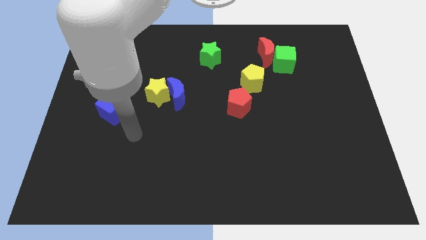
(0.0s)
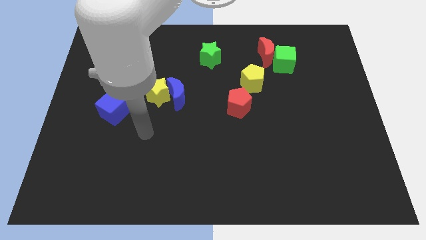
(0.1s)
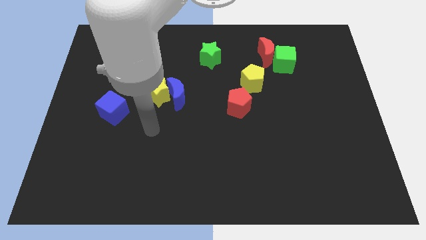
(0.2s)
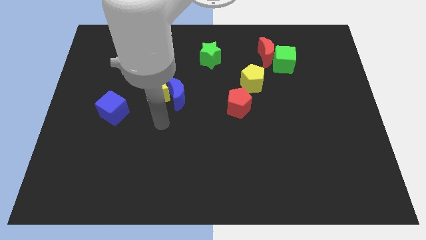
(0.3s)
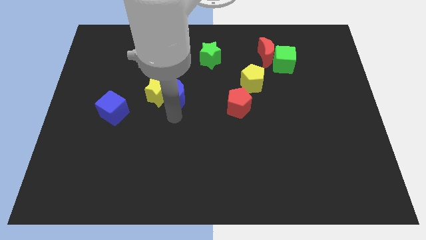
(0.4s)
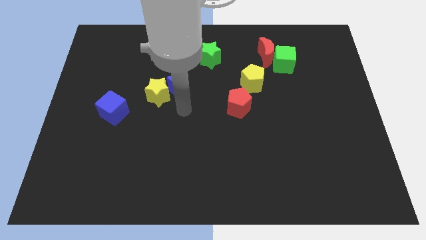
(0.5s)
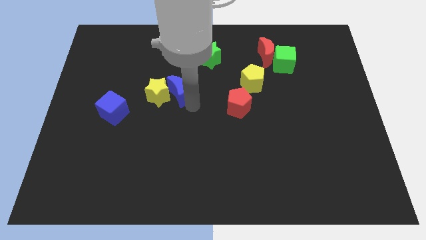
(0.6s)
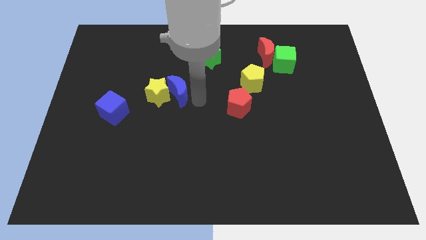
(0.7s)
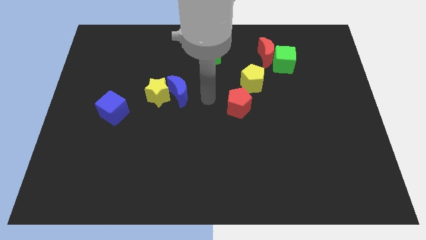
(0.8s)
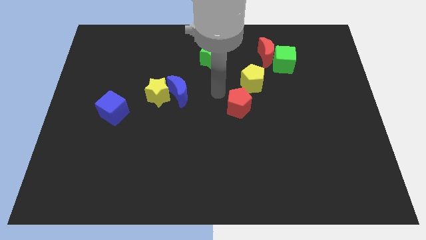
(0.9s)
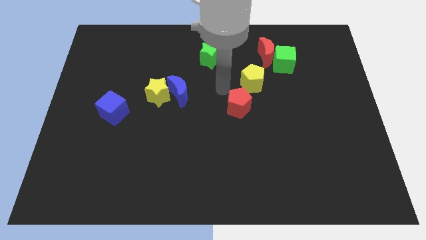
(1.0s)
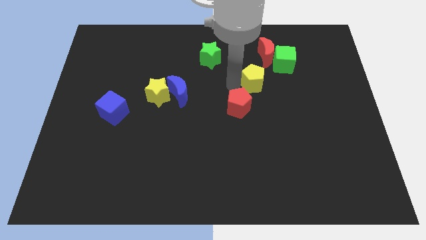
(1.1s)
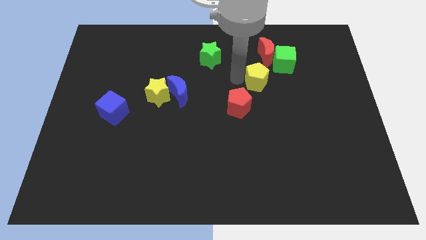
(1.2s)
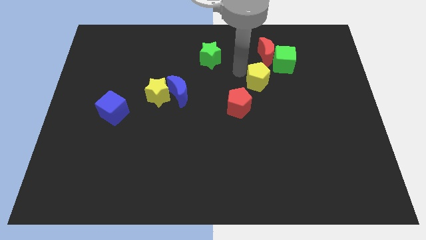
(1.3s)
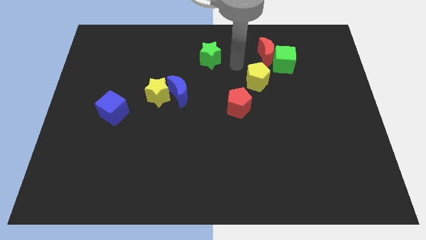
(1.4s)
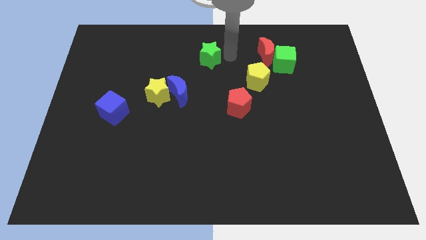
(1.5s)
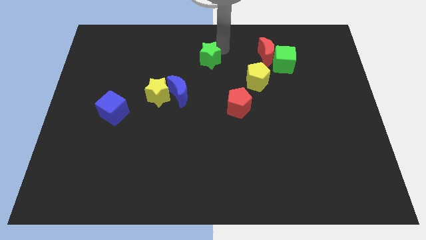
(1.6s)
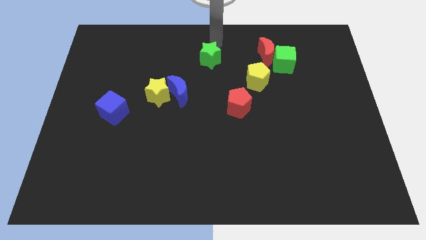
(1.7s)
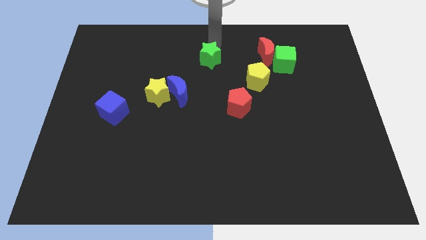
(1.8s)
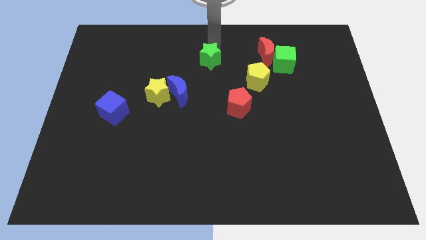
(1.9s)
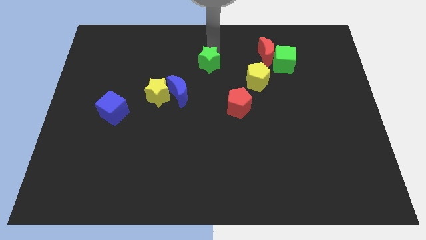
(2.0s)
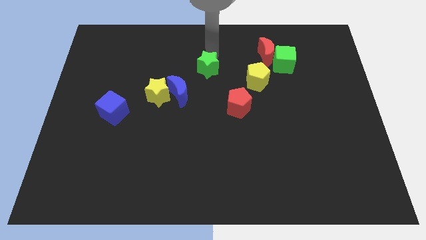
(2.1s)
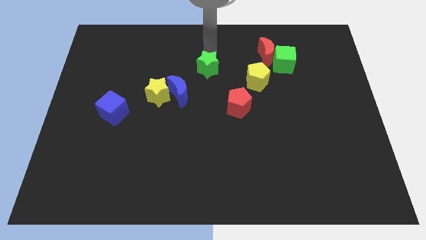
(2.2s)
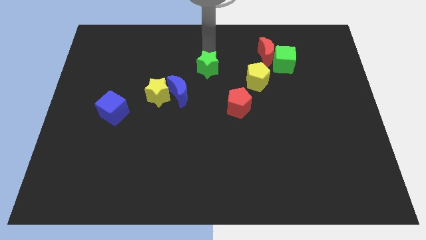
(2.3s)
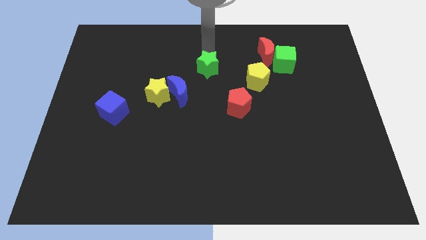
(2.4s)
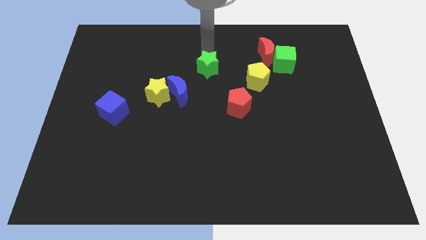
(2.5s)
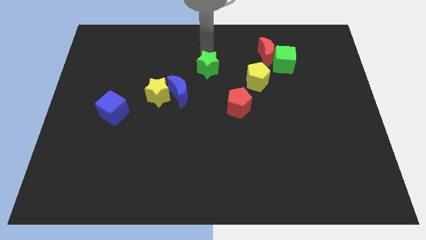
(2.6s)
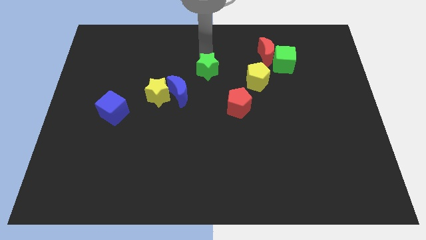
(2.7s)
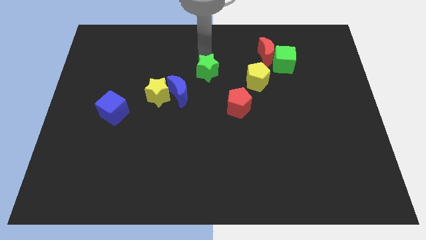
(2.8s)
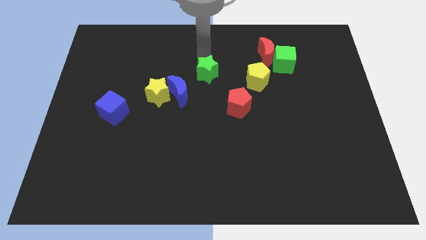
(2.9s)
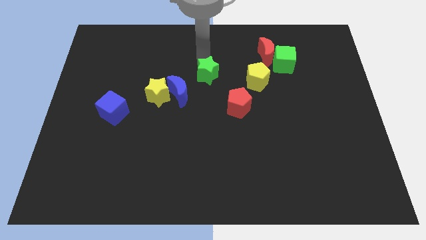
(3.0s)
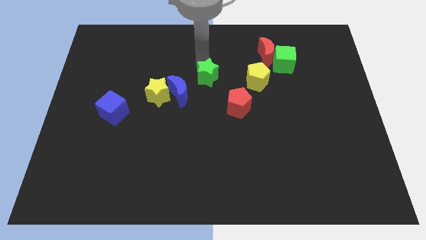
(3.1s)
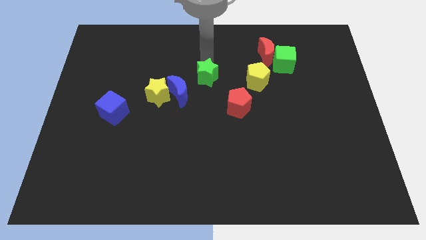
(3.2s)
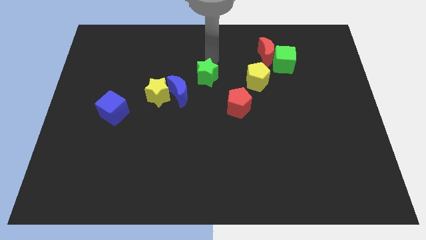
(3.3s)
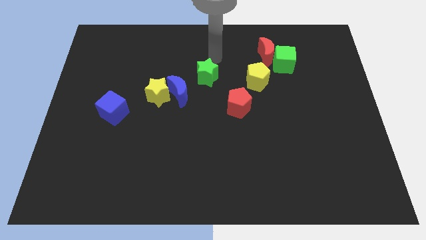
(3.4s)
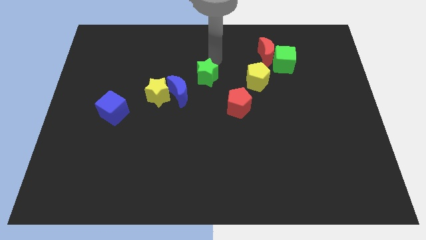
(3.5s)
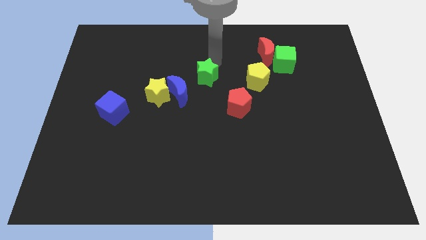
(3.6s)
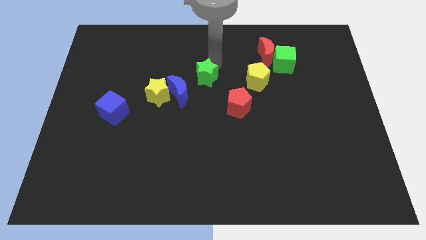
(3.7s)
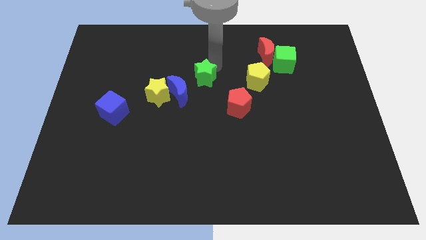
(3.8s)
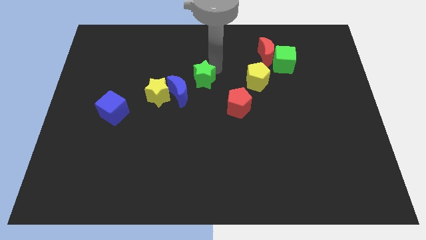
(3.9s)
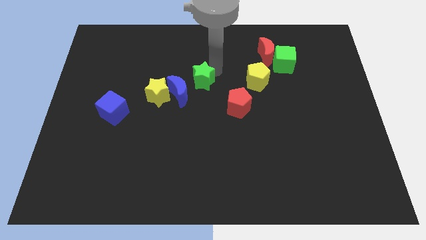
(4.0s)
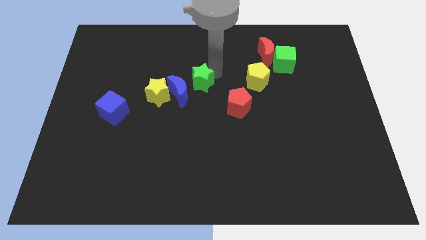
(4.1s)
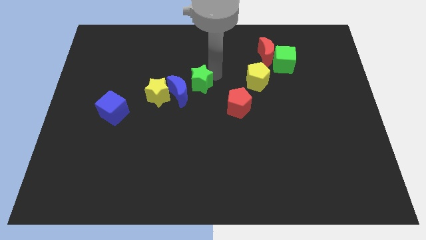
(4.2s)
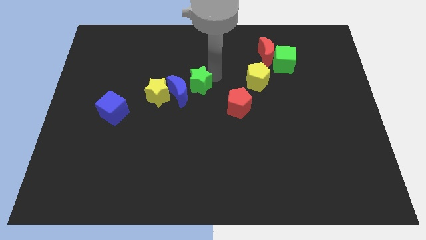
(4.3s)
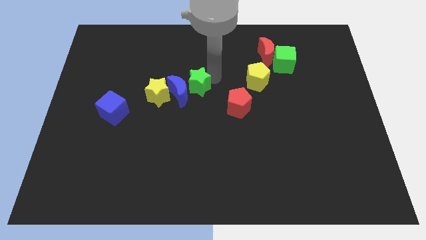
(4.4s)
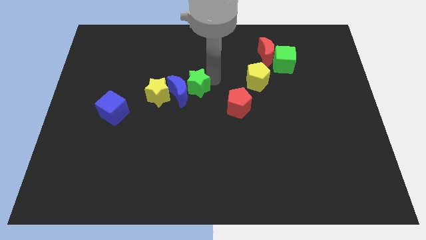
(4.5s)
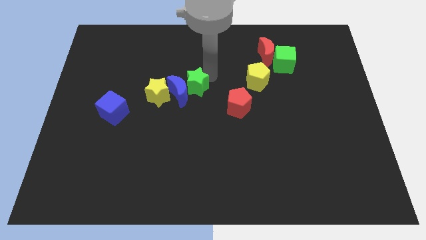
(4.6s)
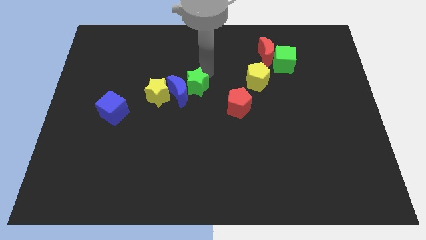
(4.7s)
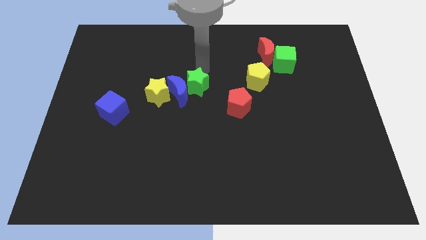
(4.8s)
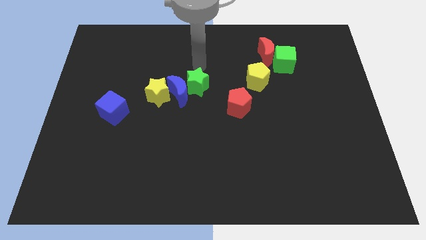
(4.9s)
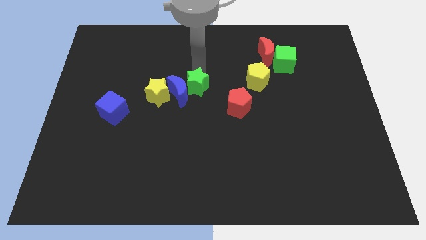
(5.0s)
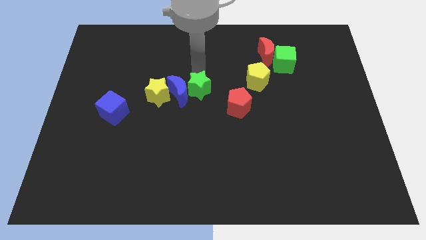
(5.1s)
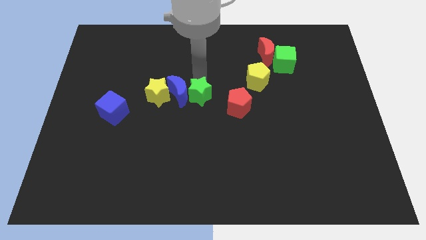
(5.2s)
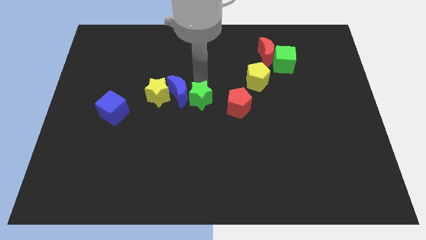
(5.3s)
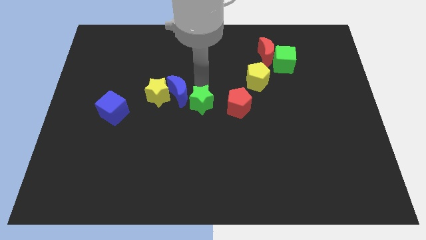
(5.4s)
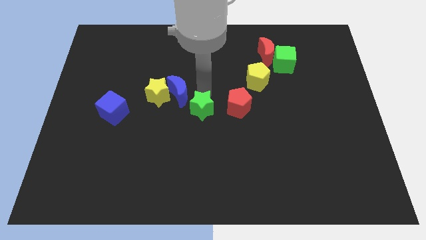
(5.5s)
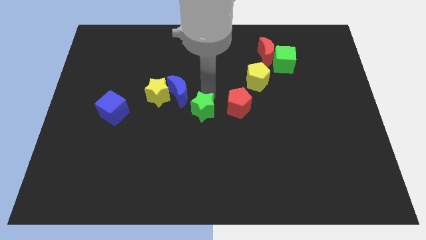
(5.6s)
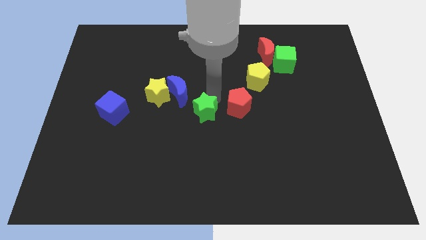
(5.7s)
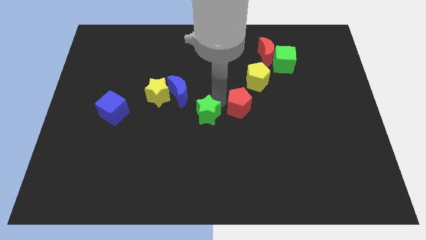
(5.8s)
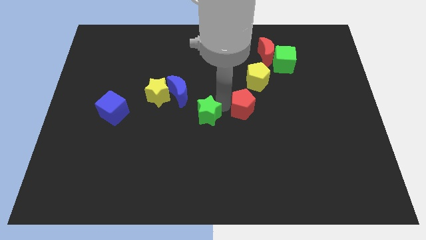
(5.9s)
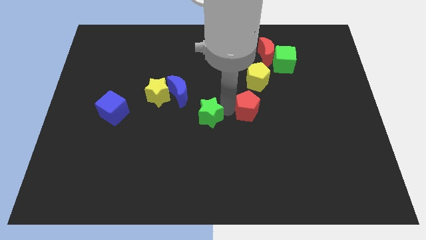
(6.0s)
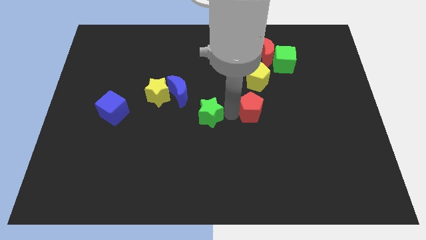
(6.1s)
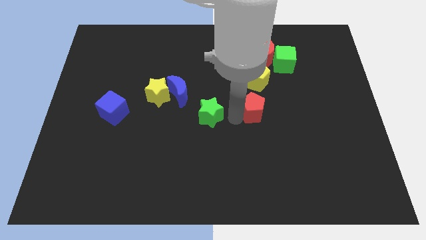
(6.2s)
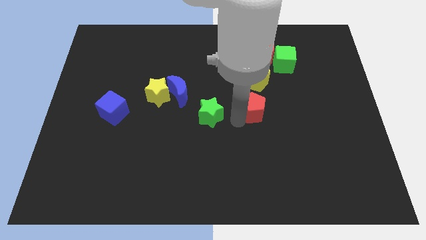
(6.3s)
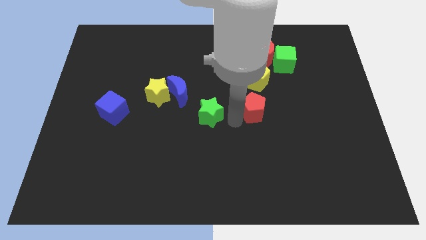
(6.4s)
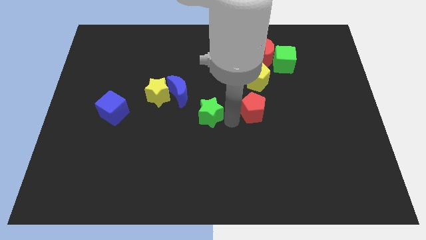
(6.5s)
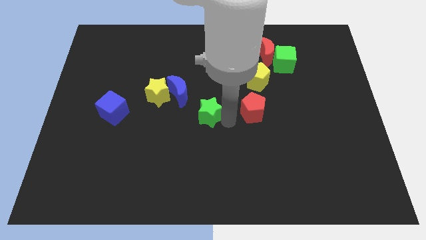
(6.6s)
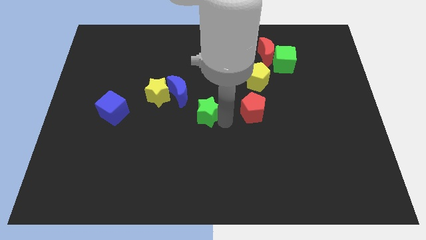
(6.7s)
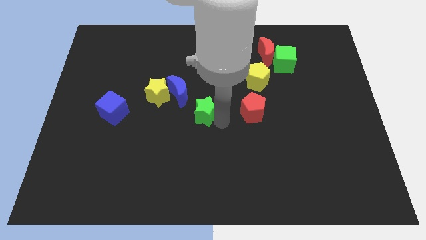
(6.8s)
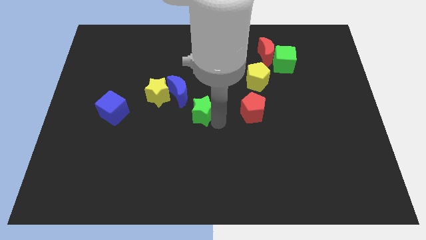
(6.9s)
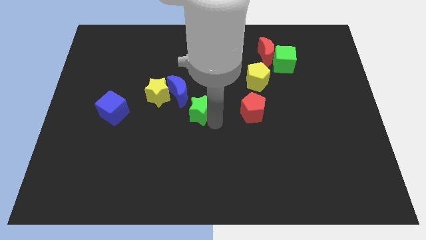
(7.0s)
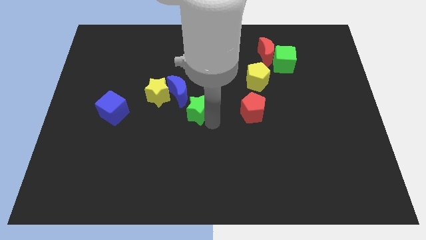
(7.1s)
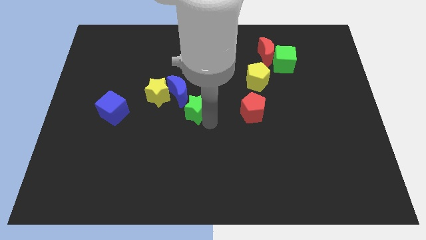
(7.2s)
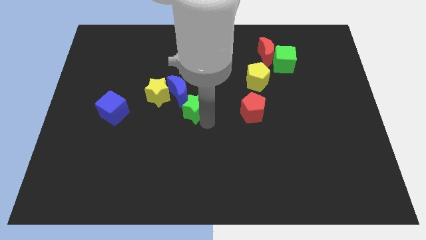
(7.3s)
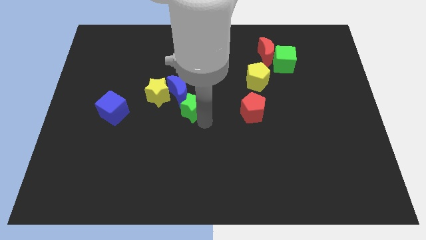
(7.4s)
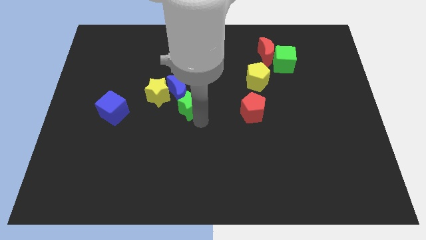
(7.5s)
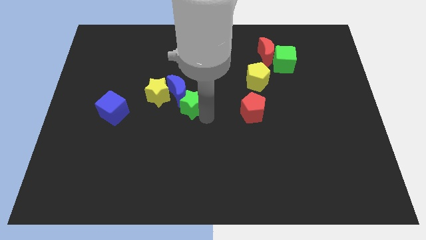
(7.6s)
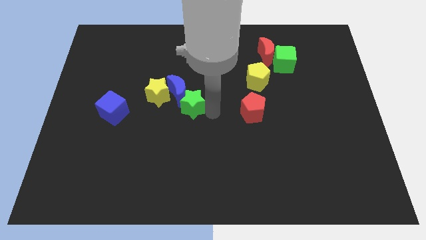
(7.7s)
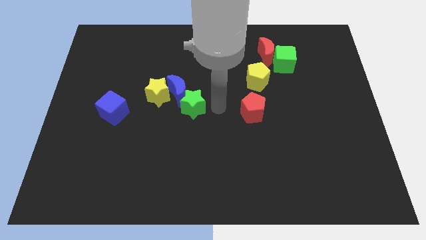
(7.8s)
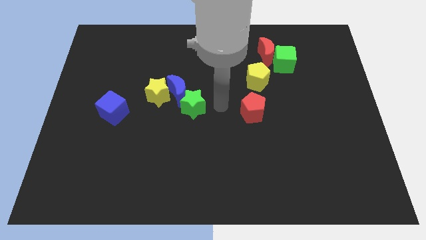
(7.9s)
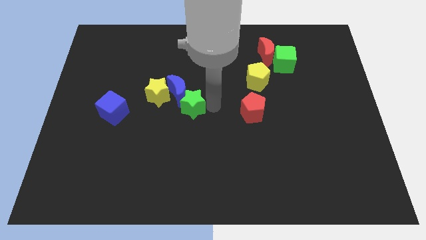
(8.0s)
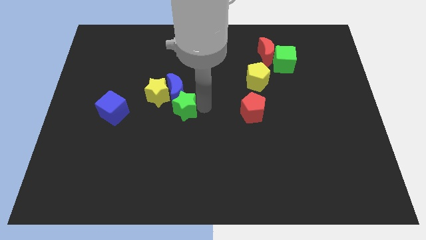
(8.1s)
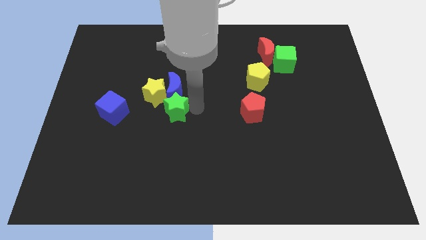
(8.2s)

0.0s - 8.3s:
put the green star to the bottom left of the blue moon
